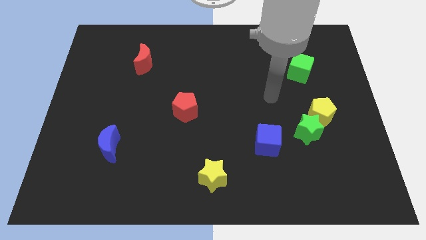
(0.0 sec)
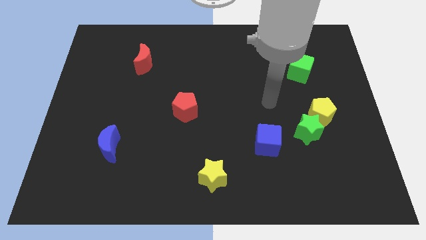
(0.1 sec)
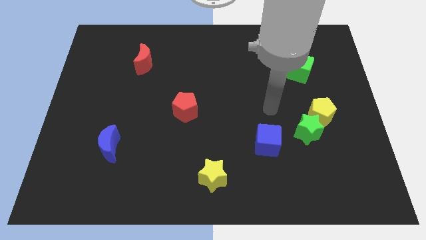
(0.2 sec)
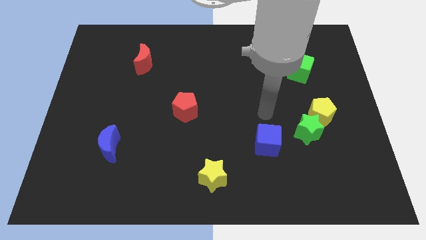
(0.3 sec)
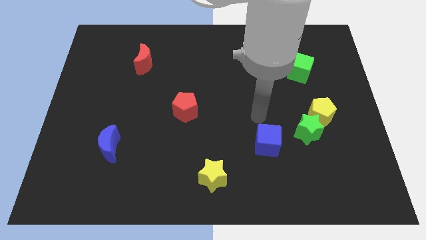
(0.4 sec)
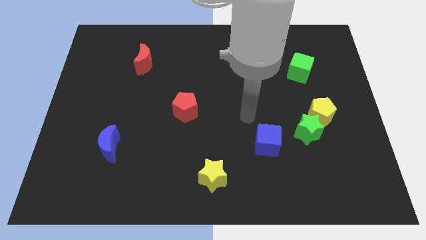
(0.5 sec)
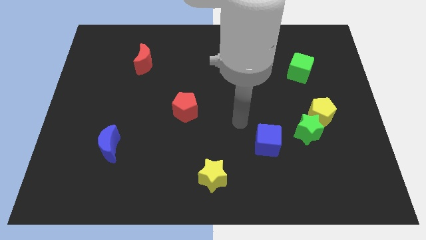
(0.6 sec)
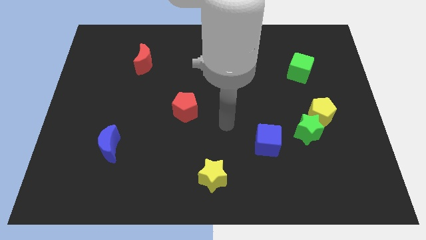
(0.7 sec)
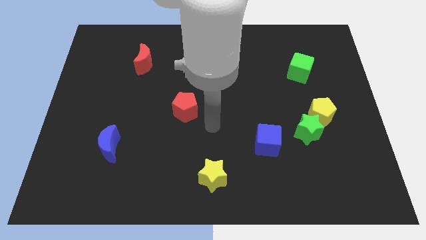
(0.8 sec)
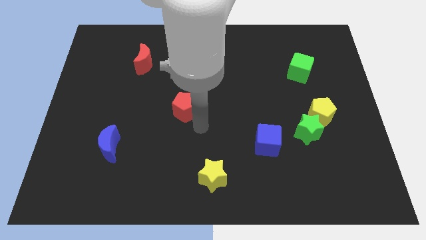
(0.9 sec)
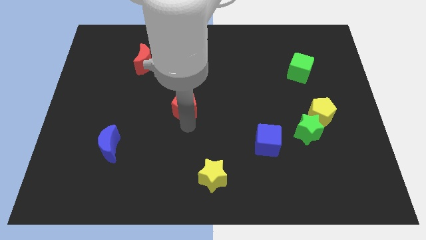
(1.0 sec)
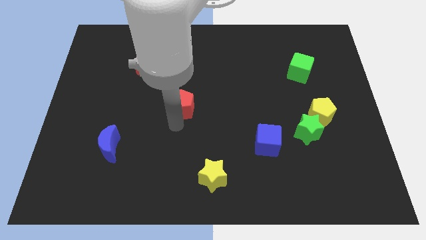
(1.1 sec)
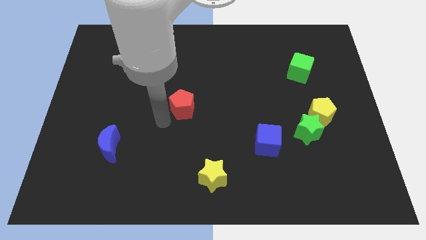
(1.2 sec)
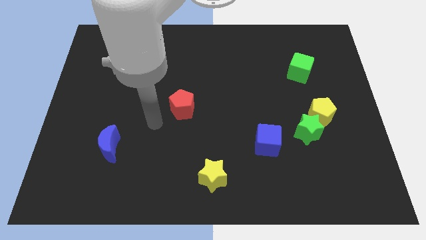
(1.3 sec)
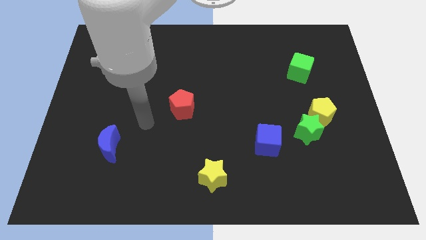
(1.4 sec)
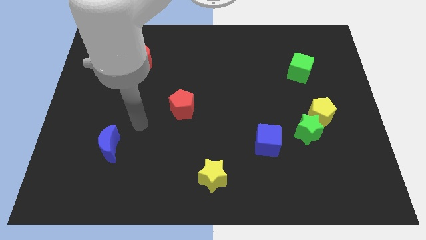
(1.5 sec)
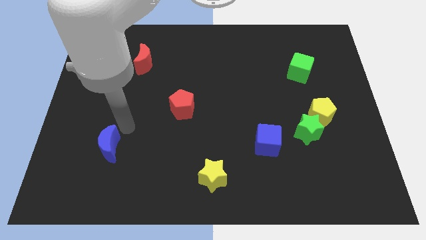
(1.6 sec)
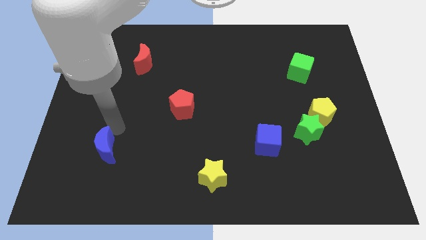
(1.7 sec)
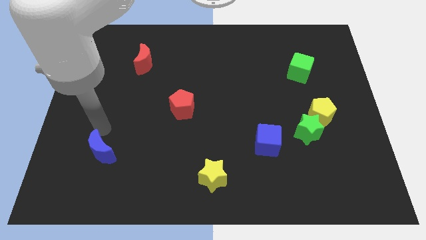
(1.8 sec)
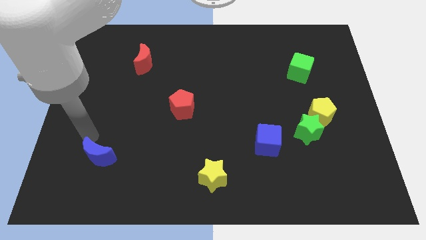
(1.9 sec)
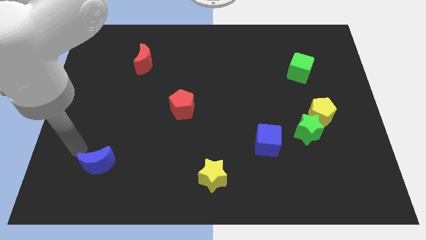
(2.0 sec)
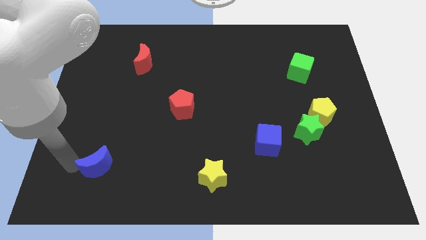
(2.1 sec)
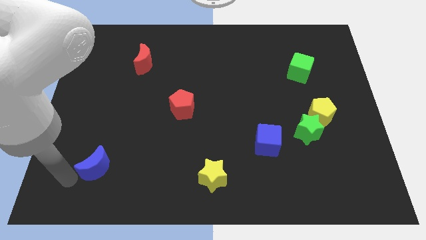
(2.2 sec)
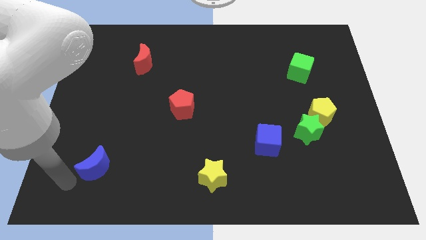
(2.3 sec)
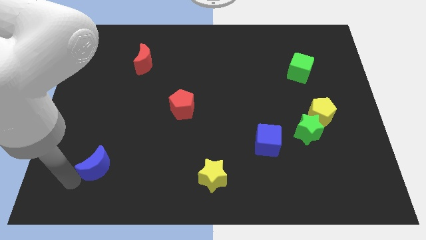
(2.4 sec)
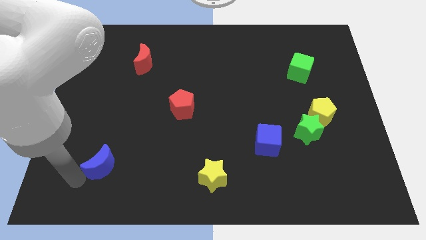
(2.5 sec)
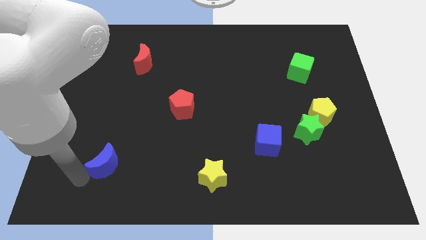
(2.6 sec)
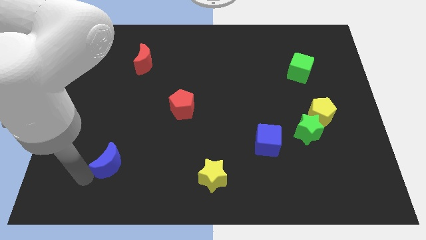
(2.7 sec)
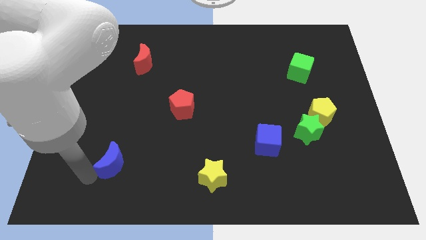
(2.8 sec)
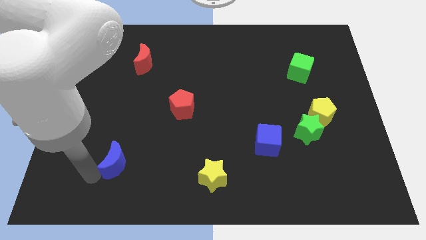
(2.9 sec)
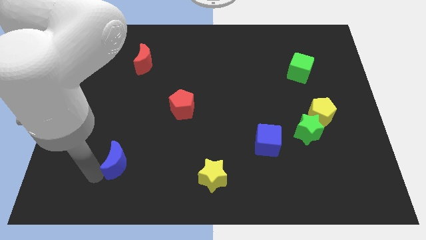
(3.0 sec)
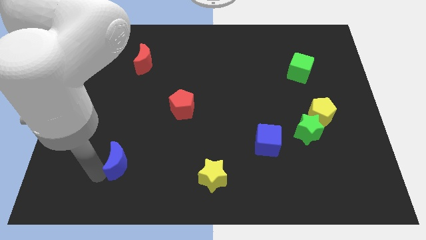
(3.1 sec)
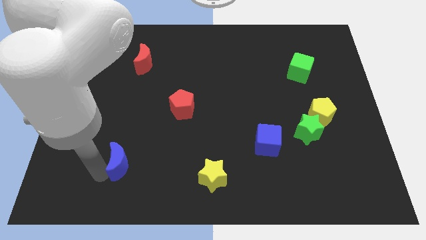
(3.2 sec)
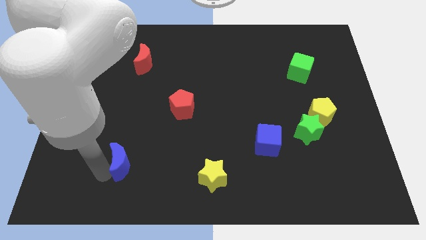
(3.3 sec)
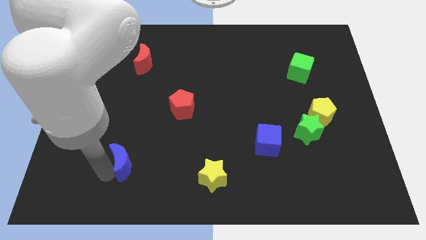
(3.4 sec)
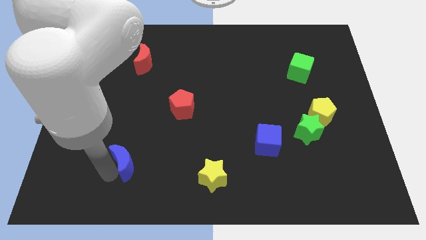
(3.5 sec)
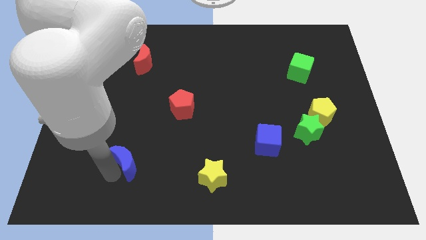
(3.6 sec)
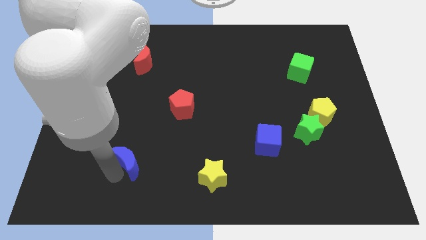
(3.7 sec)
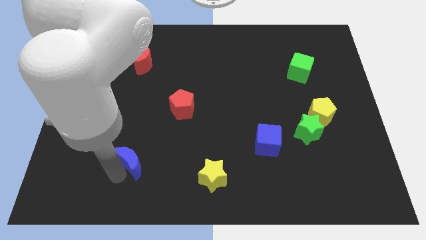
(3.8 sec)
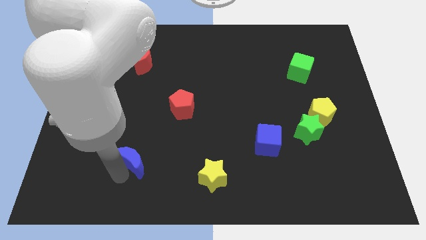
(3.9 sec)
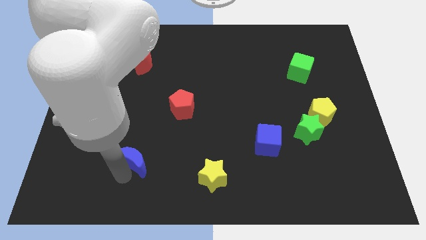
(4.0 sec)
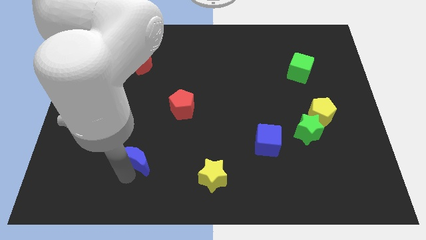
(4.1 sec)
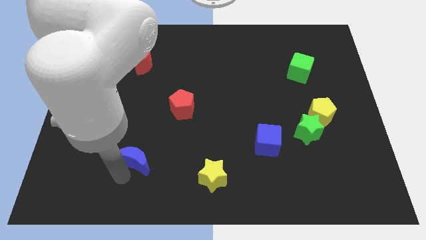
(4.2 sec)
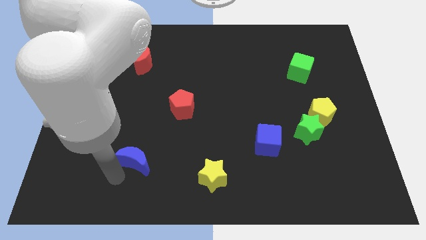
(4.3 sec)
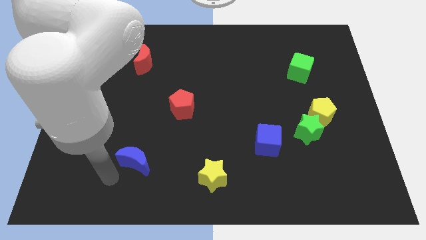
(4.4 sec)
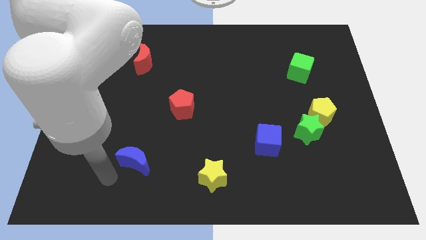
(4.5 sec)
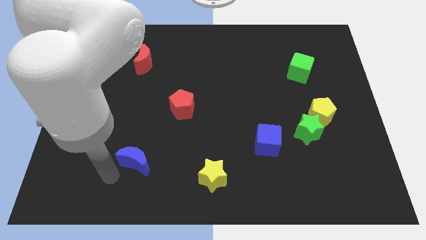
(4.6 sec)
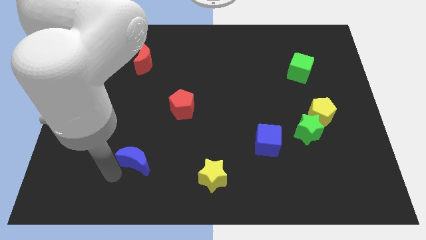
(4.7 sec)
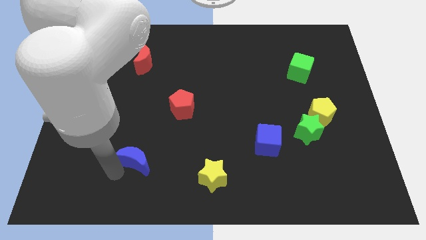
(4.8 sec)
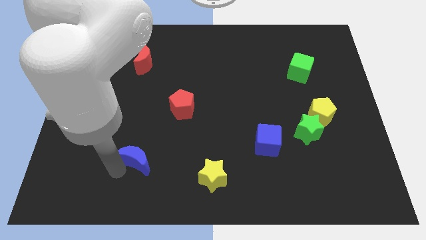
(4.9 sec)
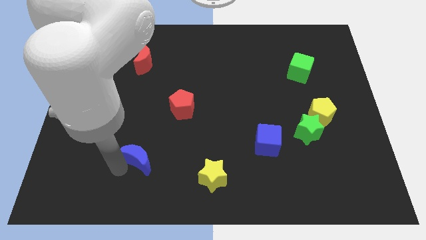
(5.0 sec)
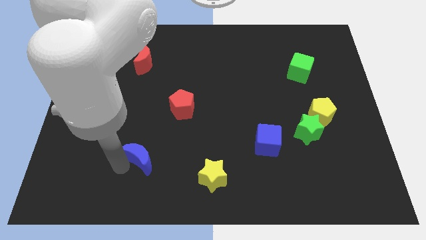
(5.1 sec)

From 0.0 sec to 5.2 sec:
slide the blue moon a little bit to the right

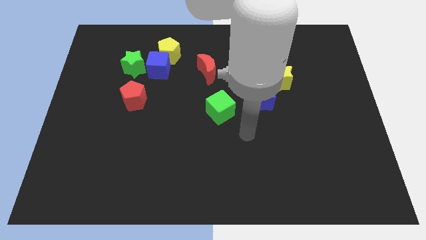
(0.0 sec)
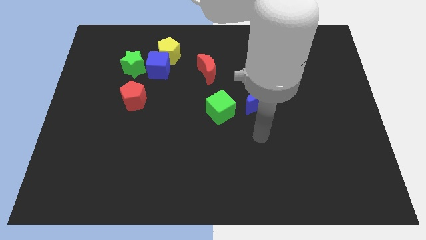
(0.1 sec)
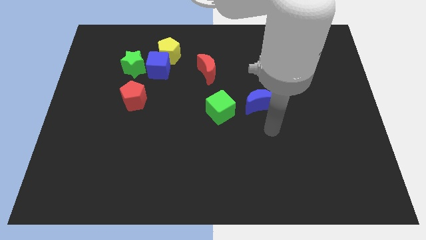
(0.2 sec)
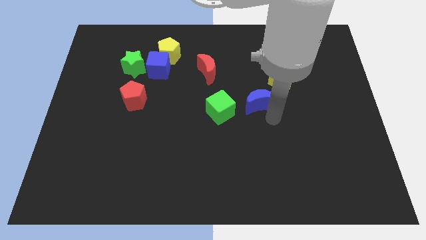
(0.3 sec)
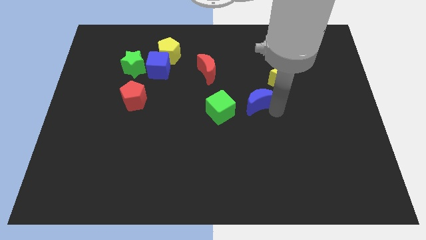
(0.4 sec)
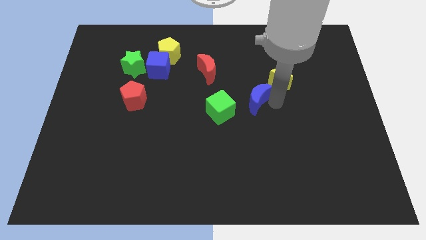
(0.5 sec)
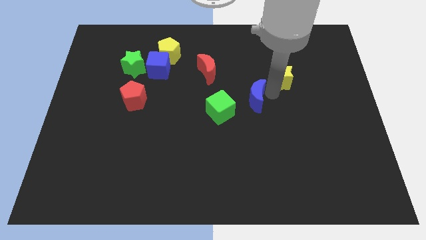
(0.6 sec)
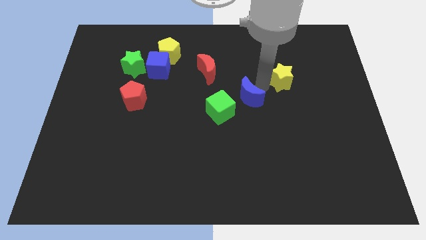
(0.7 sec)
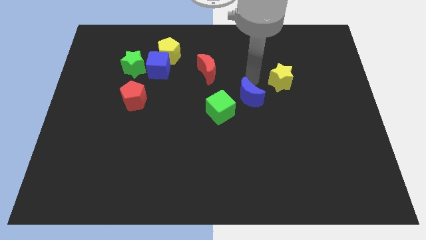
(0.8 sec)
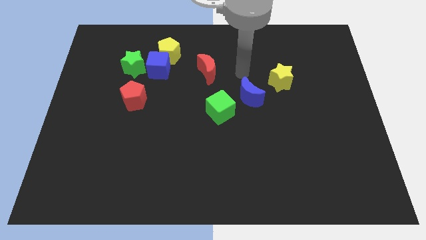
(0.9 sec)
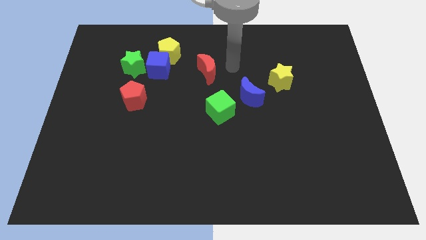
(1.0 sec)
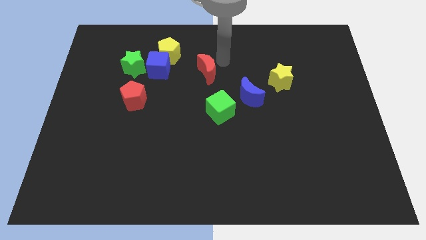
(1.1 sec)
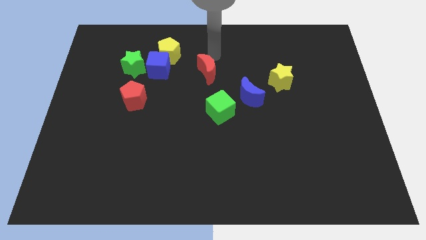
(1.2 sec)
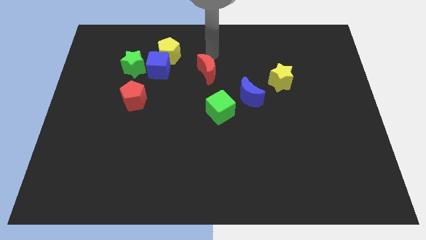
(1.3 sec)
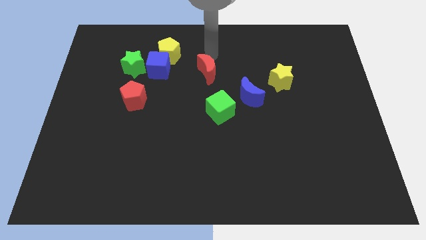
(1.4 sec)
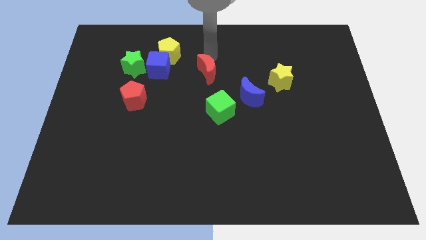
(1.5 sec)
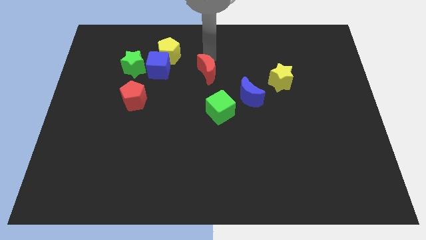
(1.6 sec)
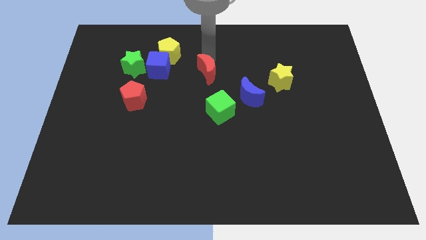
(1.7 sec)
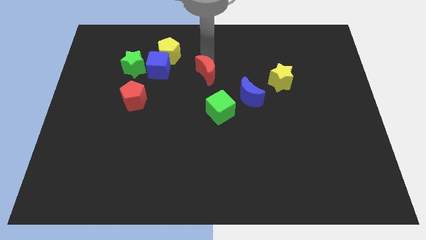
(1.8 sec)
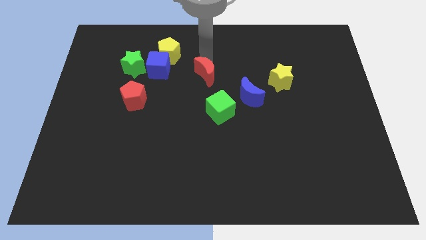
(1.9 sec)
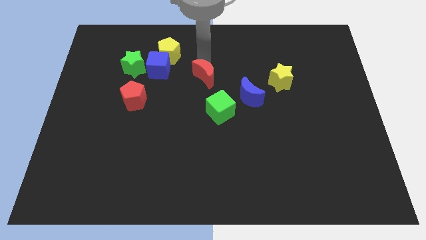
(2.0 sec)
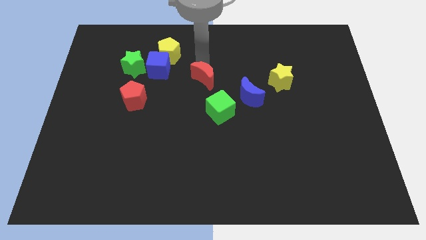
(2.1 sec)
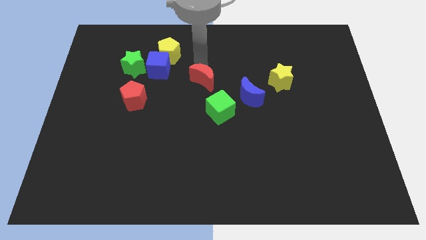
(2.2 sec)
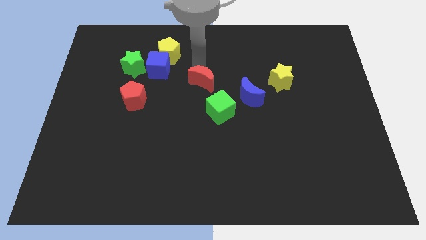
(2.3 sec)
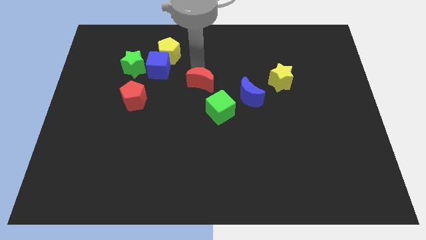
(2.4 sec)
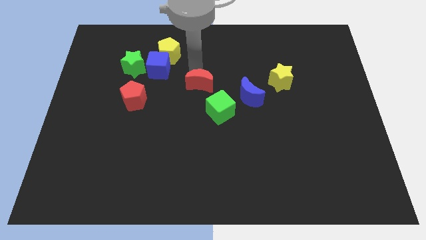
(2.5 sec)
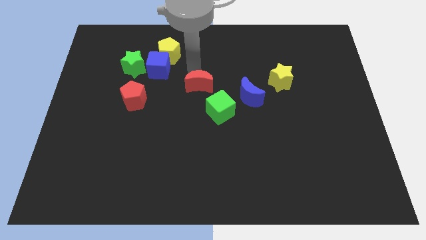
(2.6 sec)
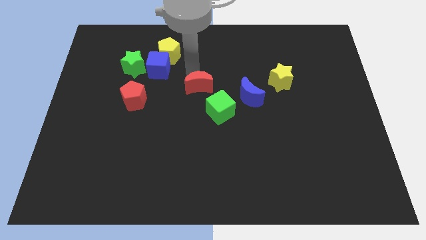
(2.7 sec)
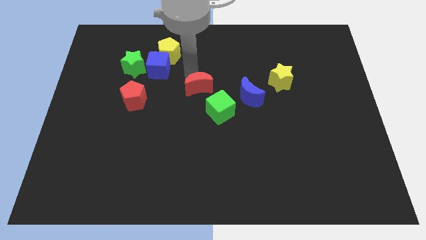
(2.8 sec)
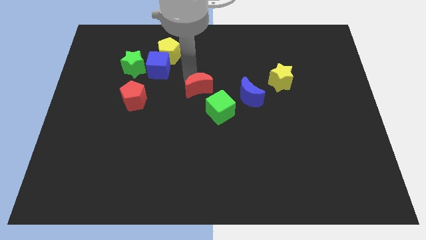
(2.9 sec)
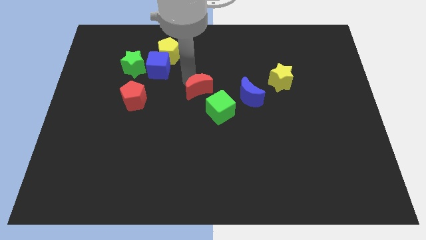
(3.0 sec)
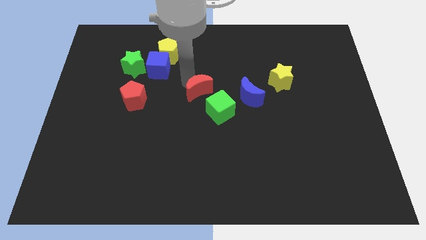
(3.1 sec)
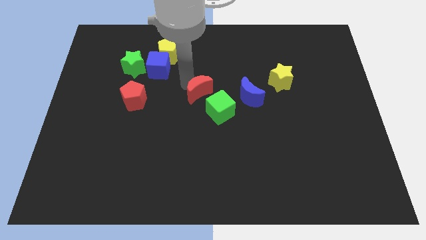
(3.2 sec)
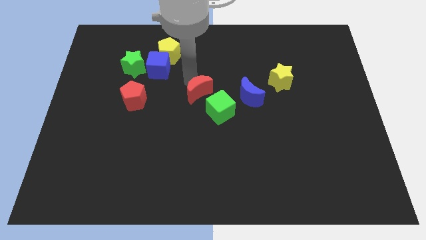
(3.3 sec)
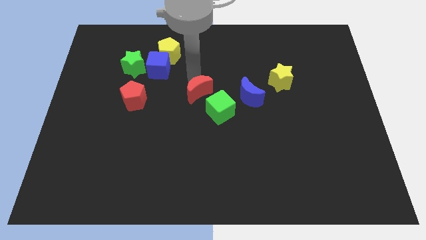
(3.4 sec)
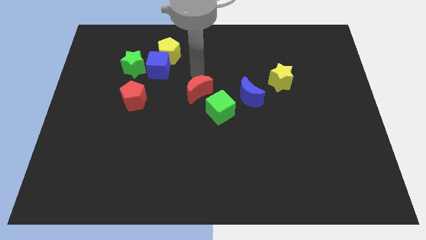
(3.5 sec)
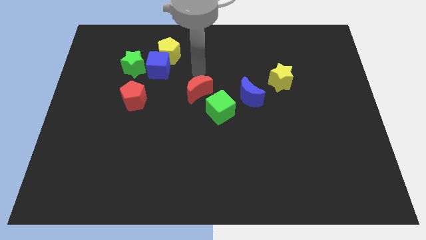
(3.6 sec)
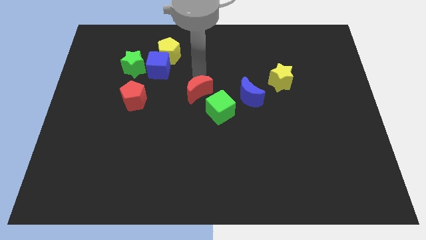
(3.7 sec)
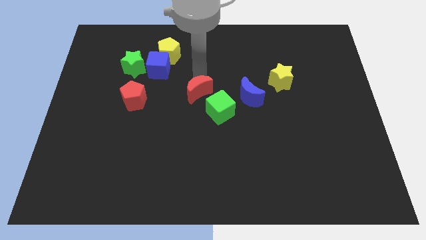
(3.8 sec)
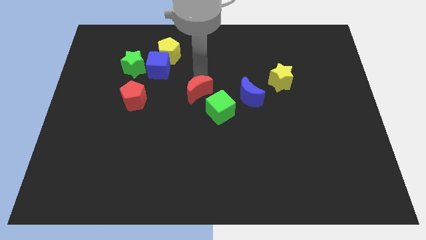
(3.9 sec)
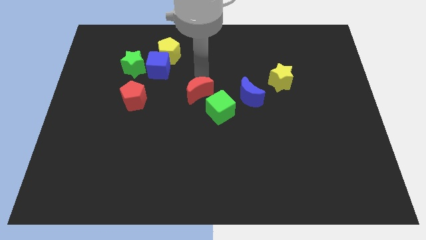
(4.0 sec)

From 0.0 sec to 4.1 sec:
slide the red moon downwards a little bit
